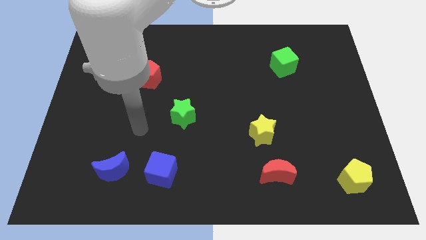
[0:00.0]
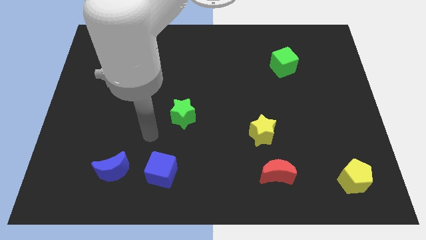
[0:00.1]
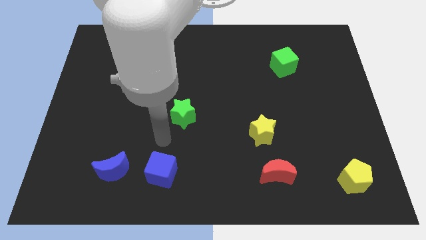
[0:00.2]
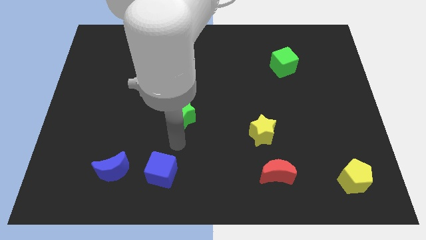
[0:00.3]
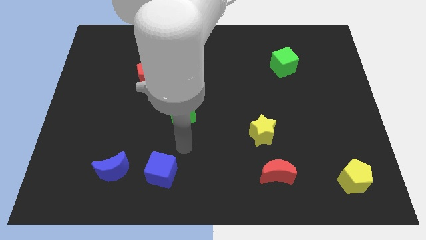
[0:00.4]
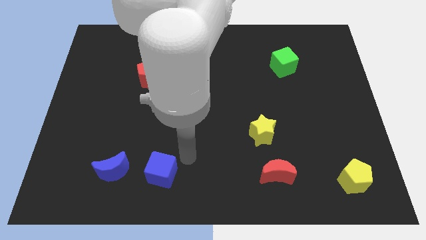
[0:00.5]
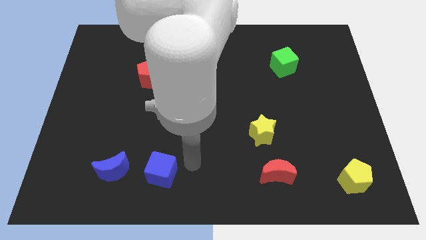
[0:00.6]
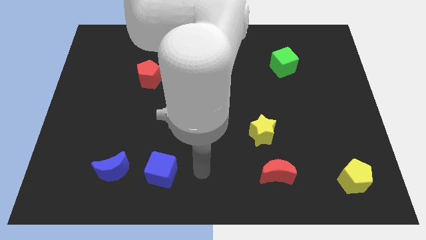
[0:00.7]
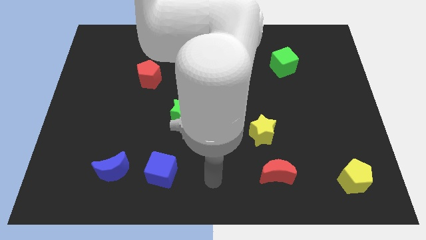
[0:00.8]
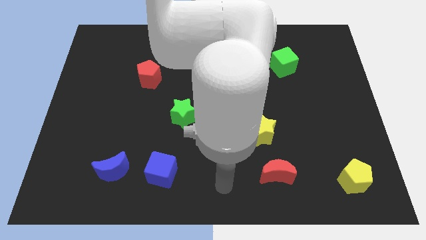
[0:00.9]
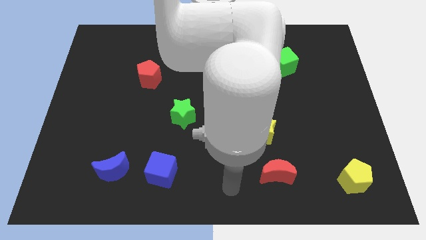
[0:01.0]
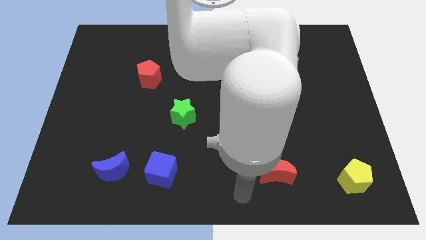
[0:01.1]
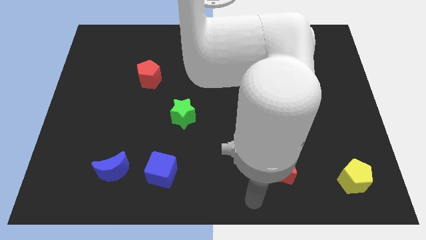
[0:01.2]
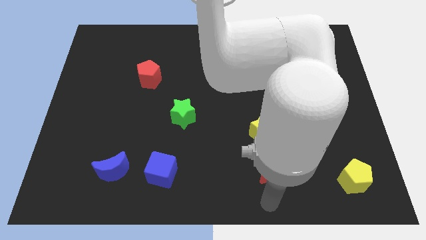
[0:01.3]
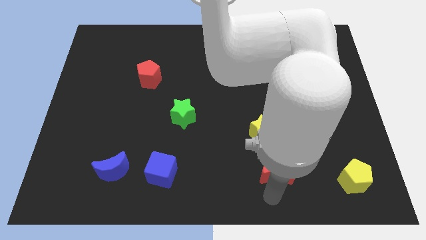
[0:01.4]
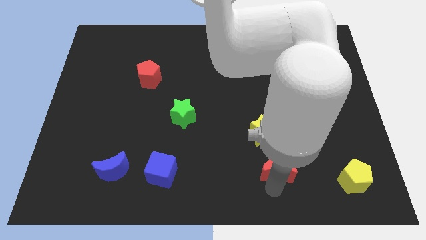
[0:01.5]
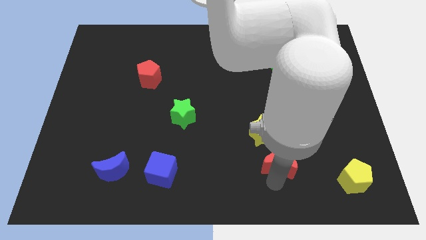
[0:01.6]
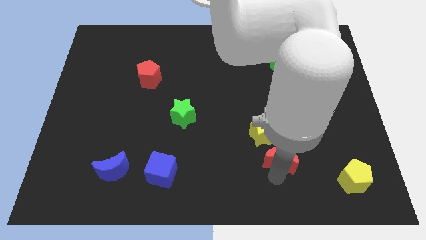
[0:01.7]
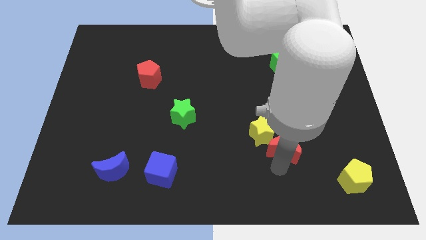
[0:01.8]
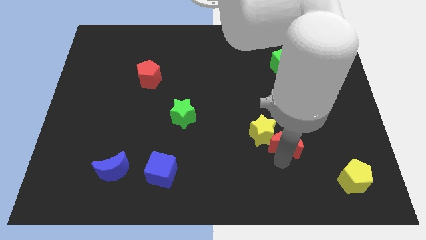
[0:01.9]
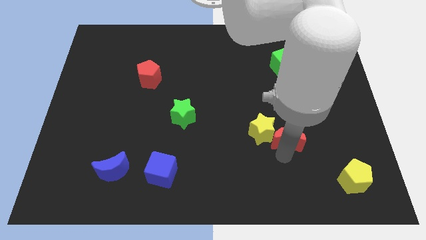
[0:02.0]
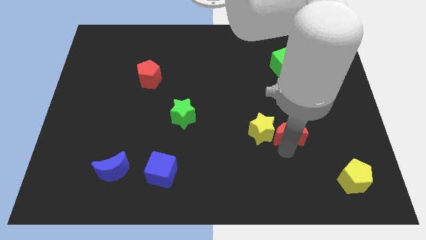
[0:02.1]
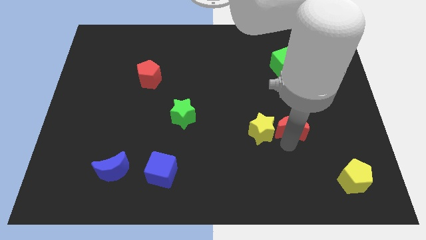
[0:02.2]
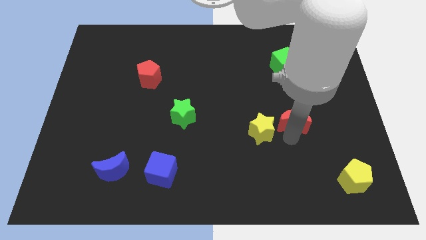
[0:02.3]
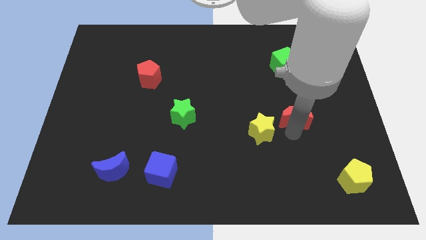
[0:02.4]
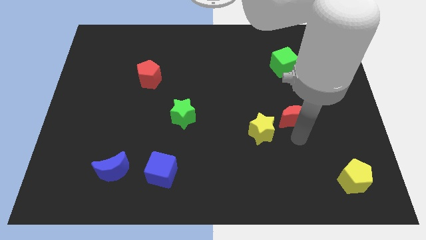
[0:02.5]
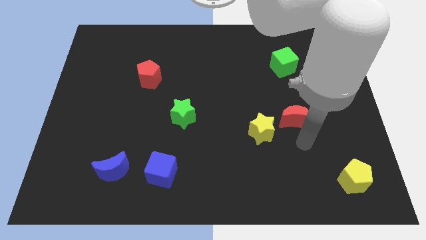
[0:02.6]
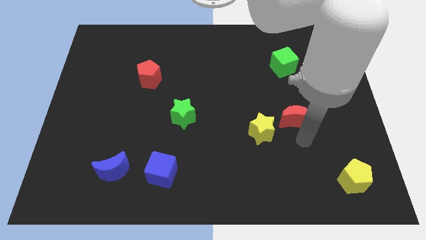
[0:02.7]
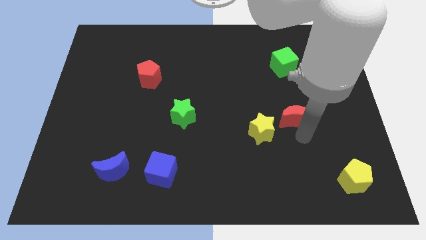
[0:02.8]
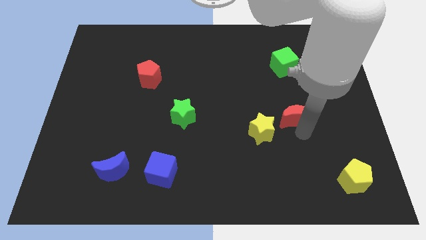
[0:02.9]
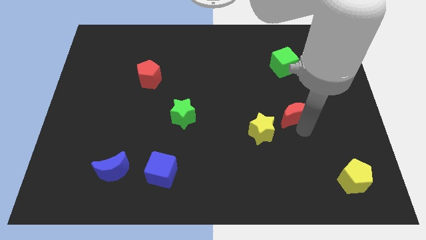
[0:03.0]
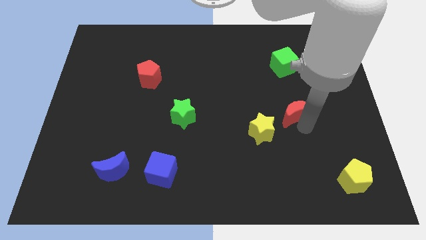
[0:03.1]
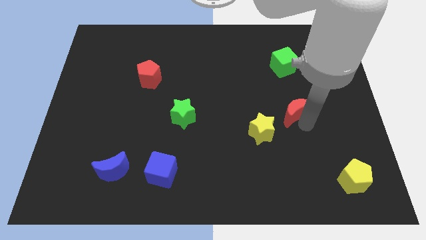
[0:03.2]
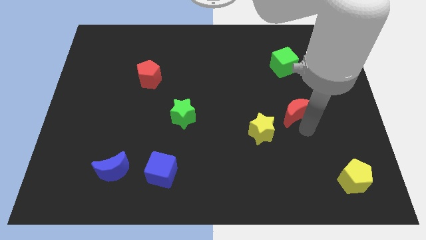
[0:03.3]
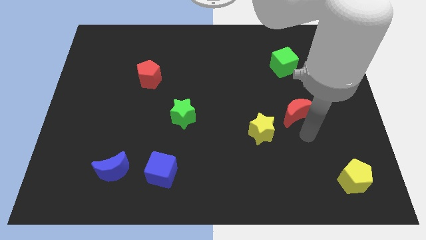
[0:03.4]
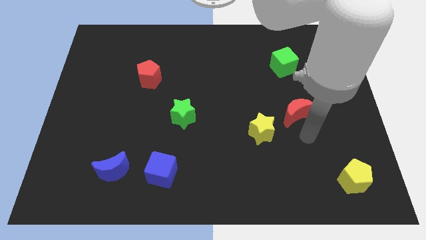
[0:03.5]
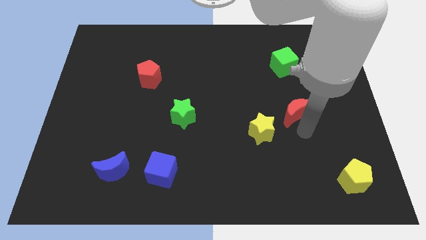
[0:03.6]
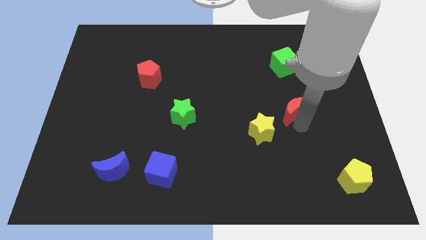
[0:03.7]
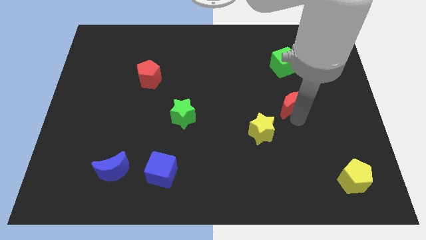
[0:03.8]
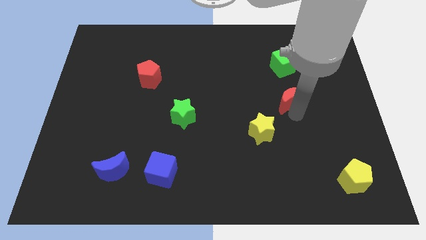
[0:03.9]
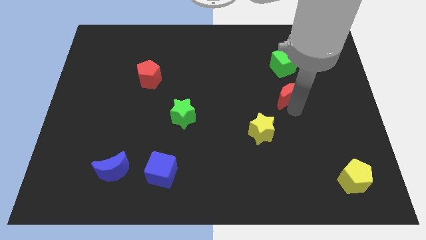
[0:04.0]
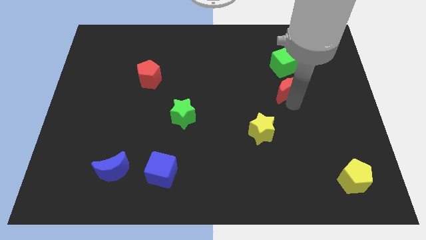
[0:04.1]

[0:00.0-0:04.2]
slide the red moon upwards

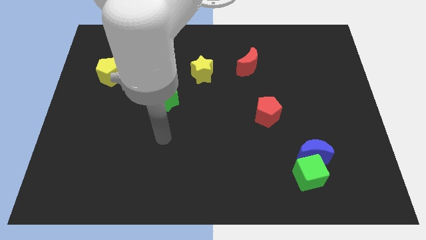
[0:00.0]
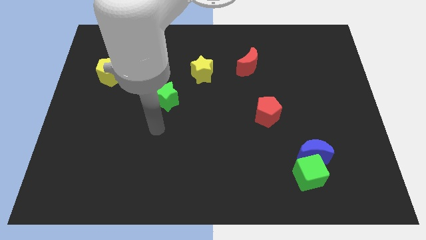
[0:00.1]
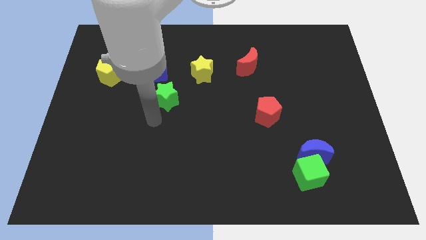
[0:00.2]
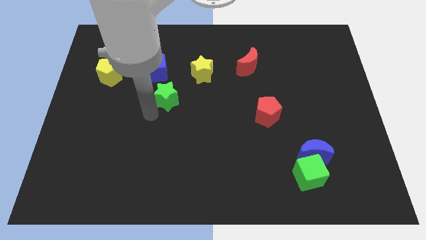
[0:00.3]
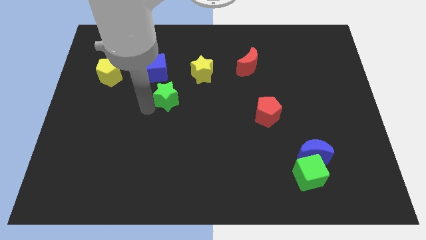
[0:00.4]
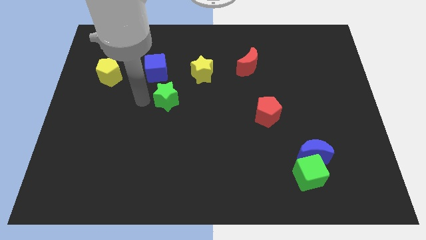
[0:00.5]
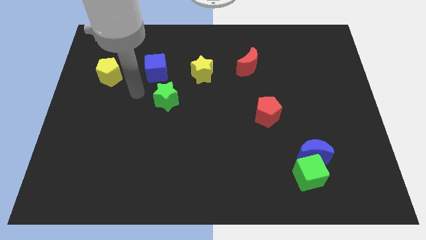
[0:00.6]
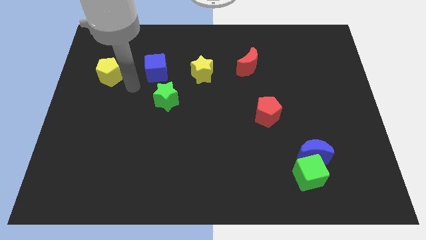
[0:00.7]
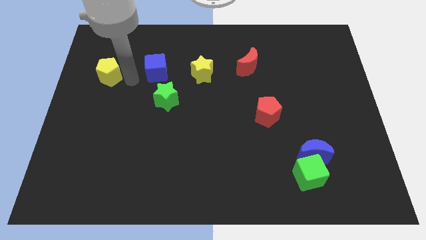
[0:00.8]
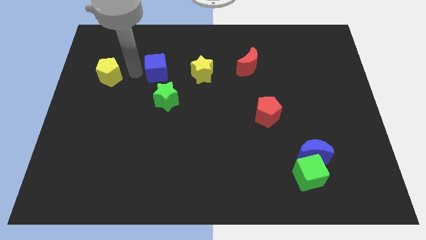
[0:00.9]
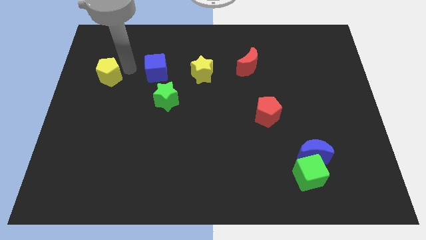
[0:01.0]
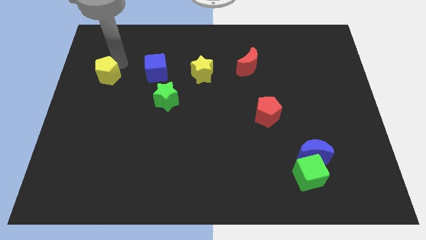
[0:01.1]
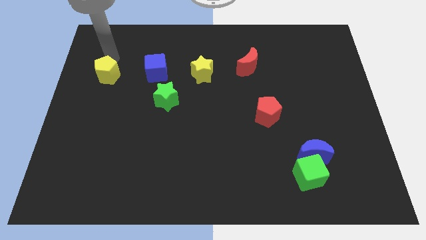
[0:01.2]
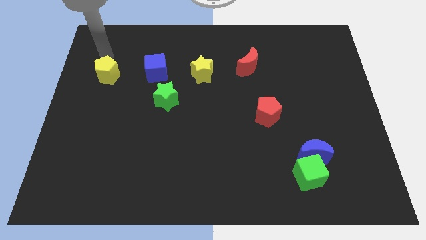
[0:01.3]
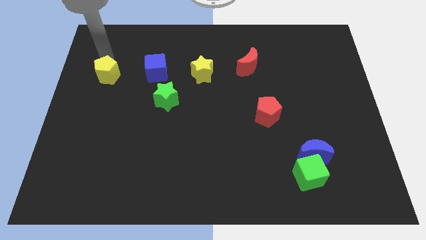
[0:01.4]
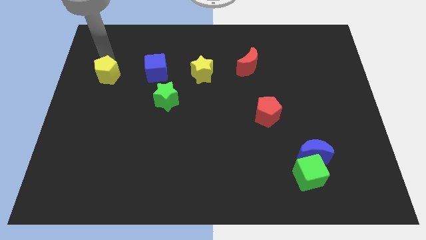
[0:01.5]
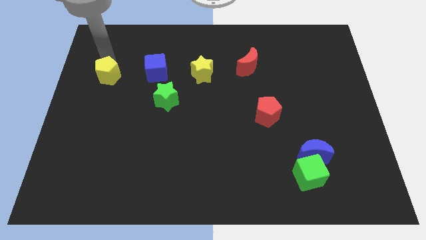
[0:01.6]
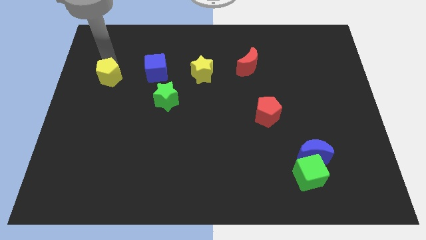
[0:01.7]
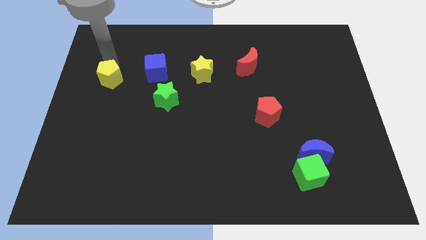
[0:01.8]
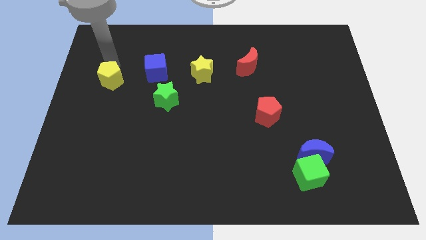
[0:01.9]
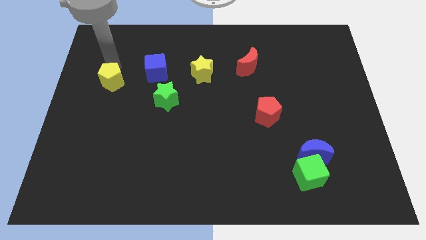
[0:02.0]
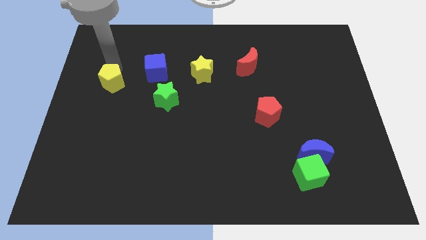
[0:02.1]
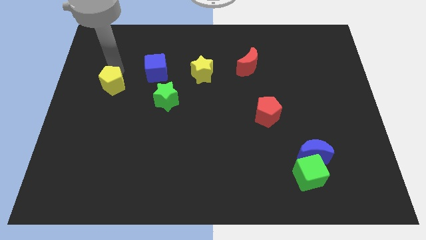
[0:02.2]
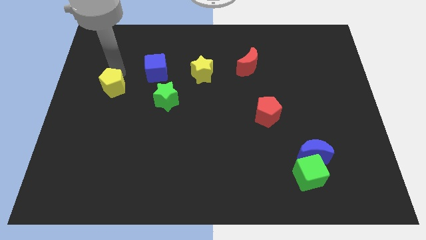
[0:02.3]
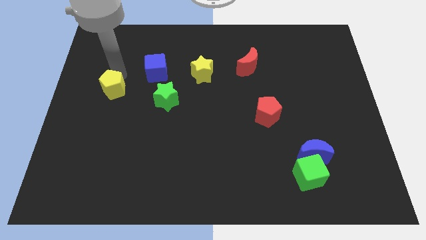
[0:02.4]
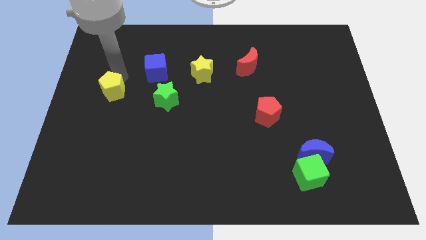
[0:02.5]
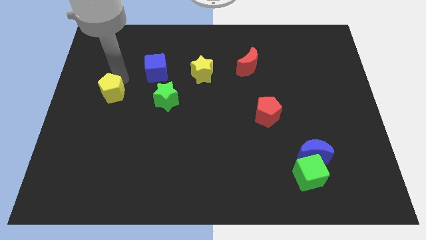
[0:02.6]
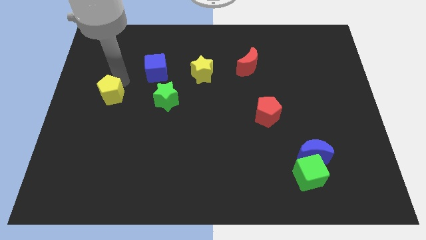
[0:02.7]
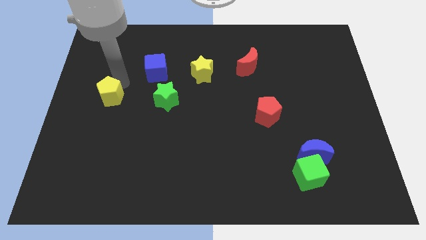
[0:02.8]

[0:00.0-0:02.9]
slightly slide the yellow pentagon down

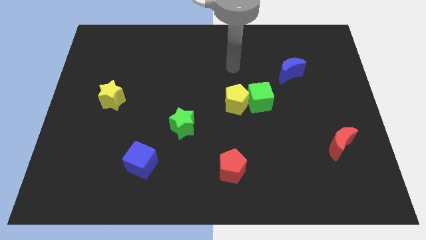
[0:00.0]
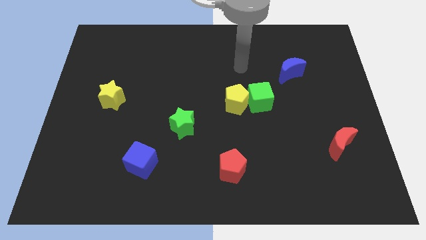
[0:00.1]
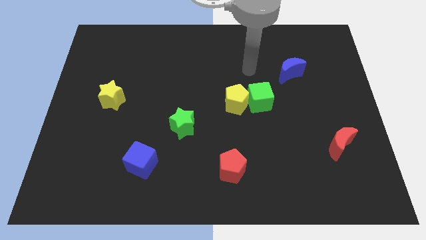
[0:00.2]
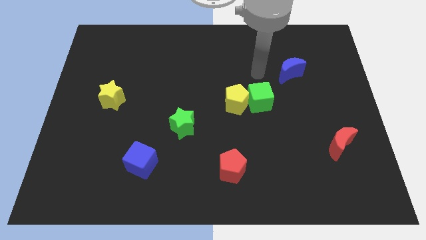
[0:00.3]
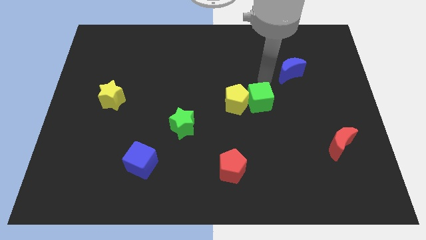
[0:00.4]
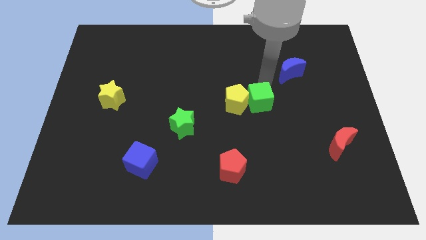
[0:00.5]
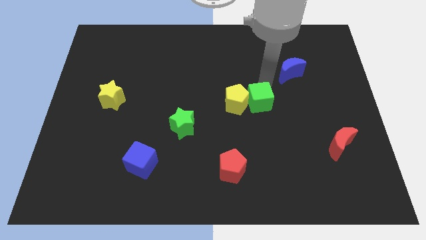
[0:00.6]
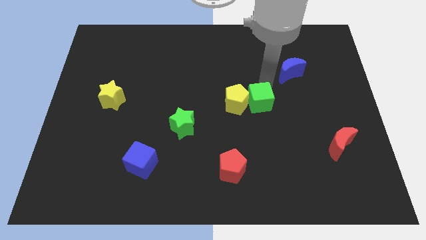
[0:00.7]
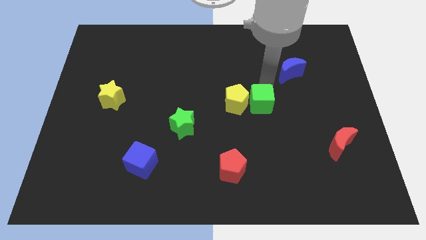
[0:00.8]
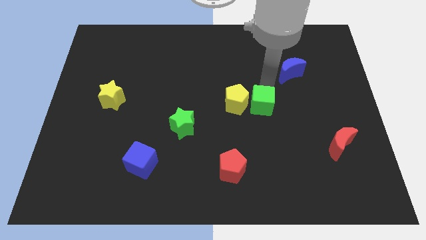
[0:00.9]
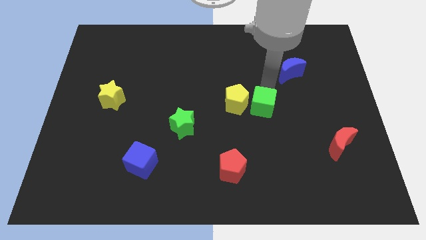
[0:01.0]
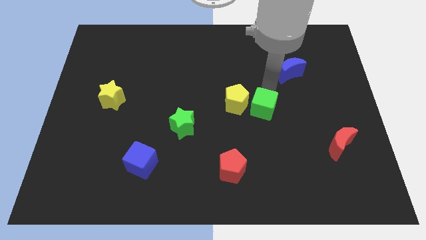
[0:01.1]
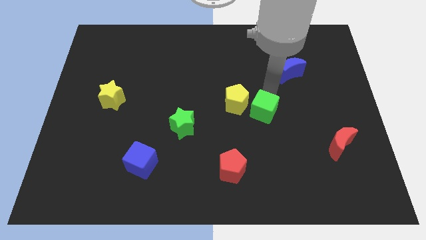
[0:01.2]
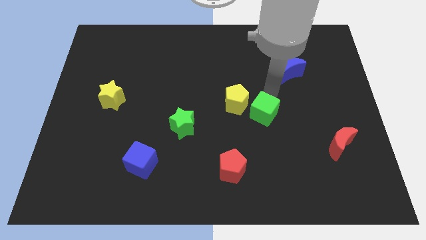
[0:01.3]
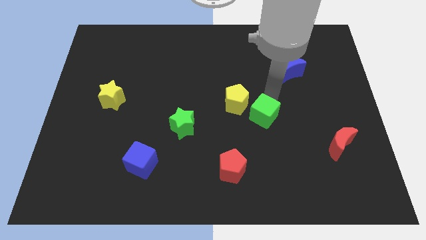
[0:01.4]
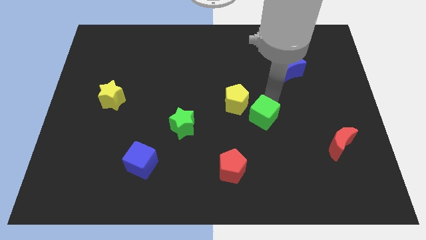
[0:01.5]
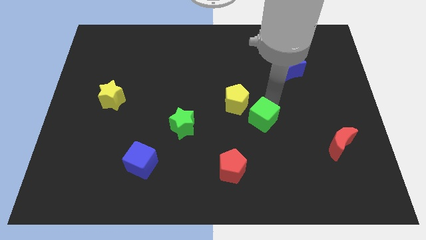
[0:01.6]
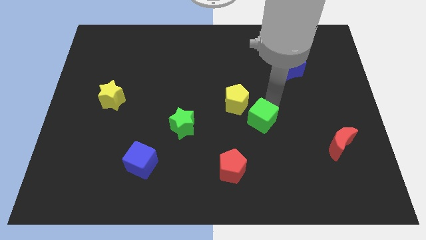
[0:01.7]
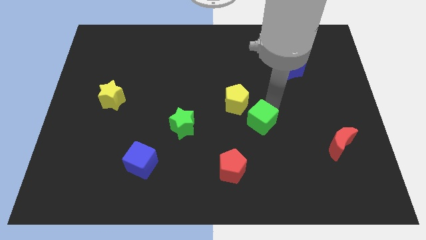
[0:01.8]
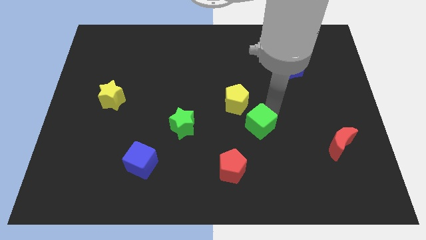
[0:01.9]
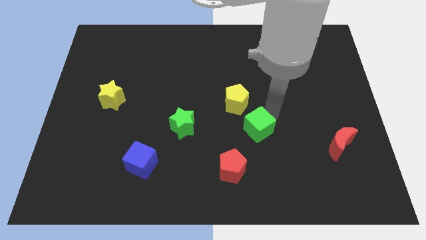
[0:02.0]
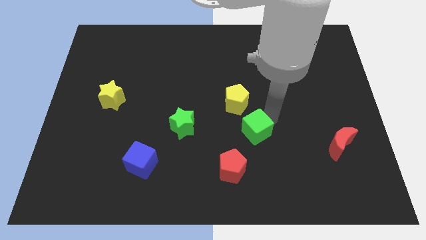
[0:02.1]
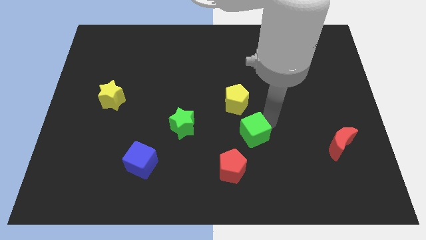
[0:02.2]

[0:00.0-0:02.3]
push the green cube a little diagonally downwards and left
